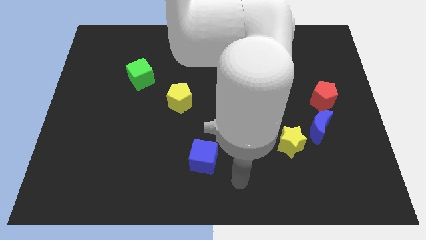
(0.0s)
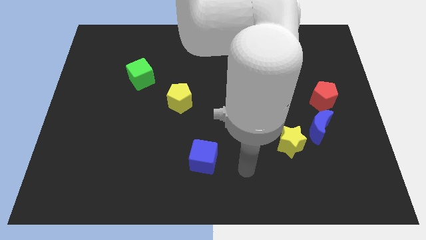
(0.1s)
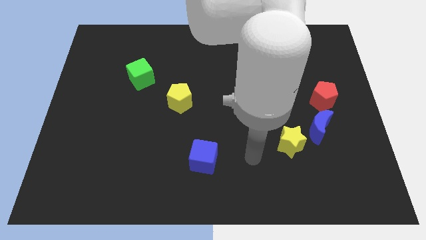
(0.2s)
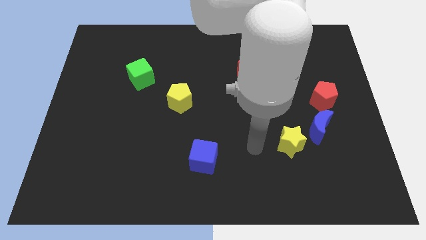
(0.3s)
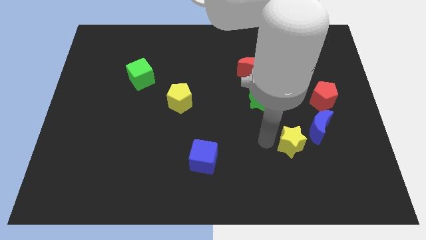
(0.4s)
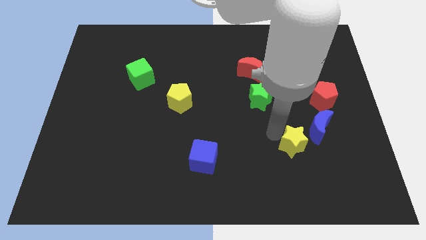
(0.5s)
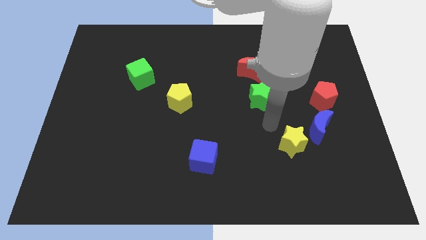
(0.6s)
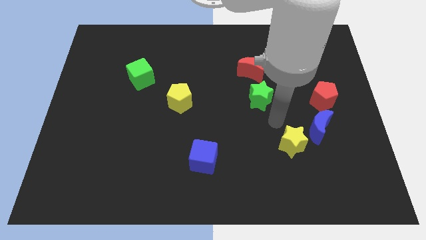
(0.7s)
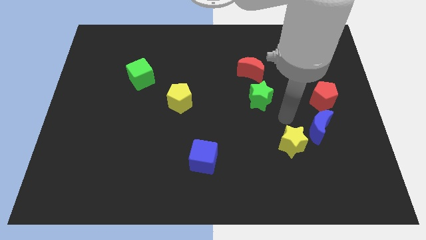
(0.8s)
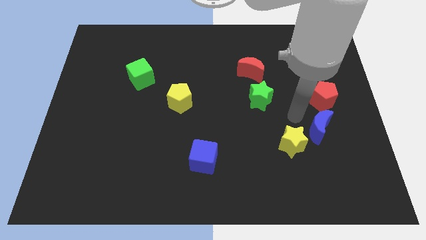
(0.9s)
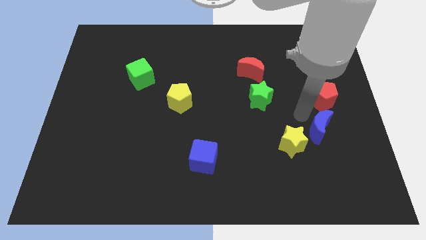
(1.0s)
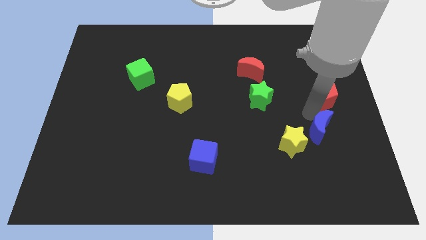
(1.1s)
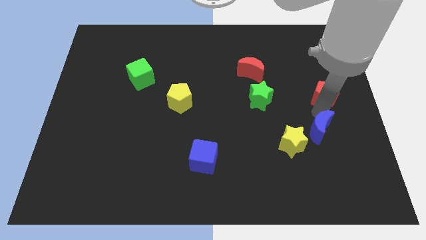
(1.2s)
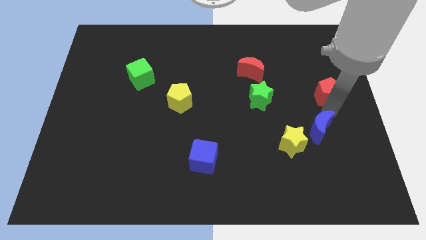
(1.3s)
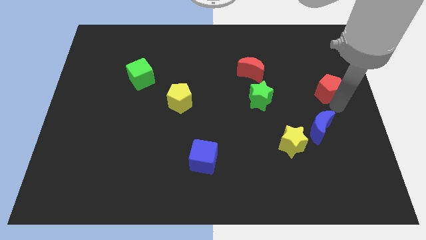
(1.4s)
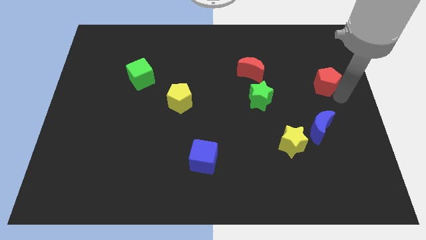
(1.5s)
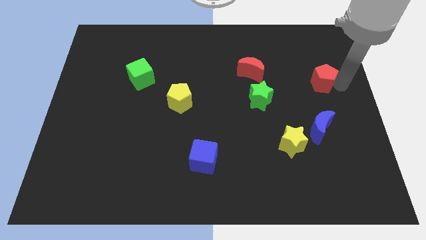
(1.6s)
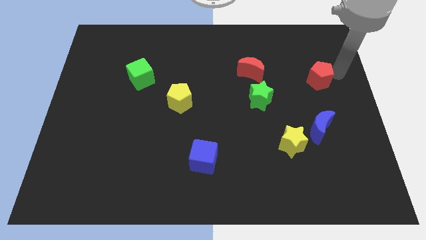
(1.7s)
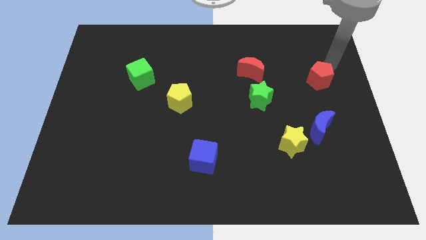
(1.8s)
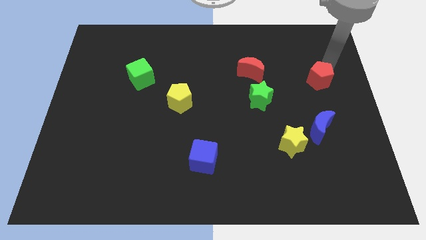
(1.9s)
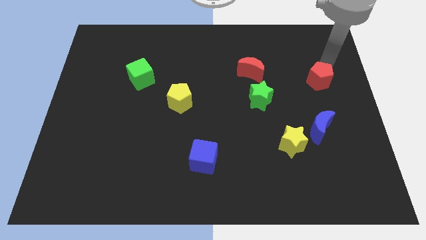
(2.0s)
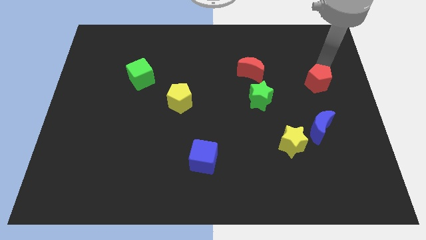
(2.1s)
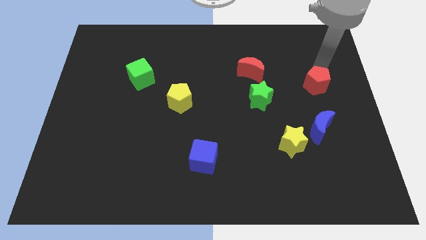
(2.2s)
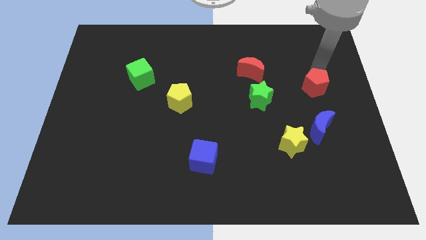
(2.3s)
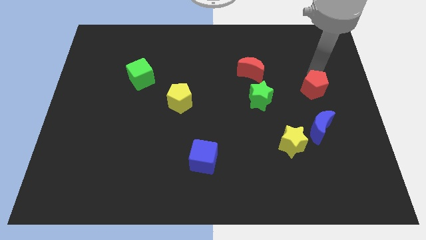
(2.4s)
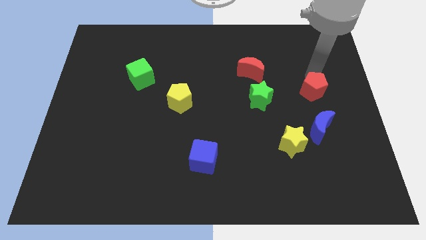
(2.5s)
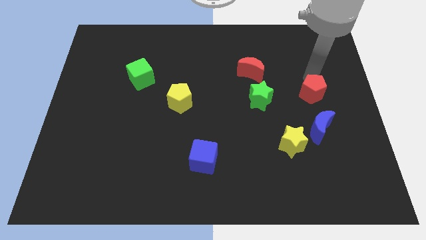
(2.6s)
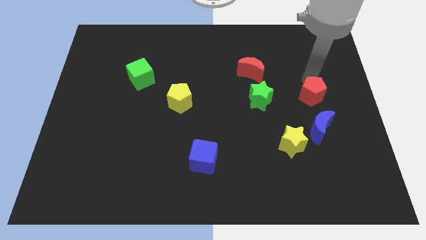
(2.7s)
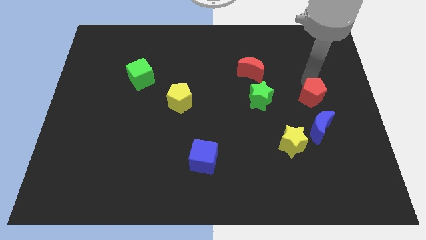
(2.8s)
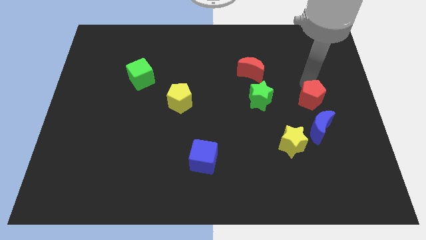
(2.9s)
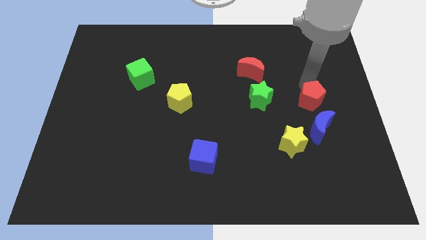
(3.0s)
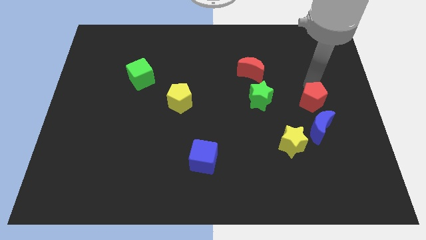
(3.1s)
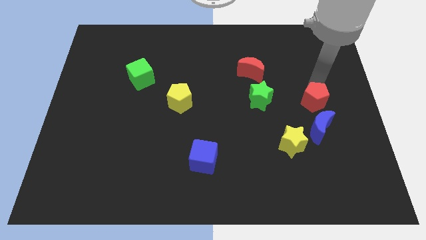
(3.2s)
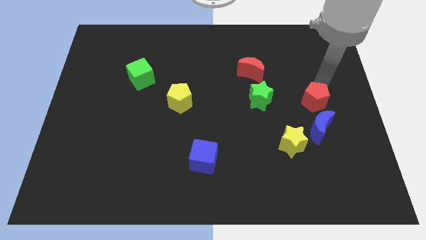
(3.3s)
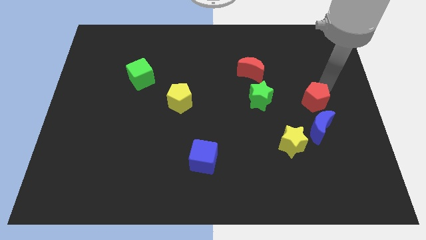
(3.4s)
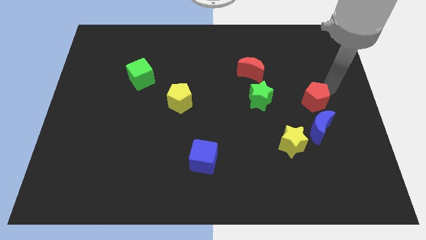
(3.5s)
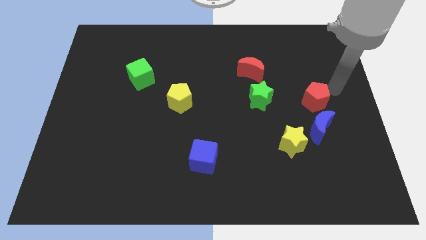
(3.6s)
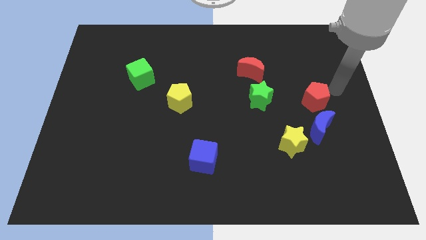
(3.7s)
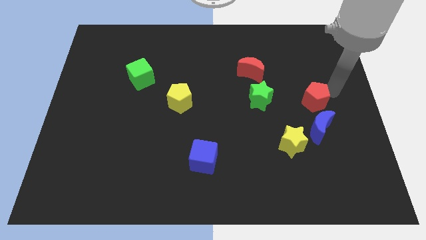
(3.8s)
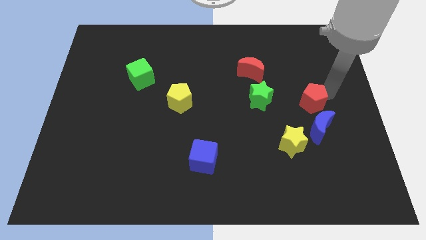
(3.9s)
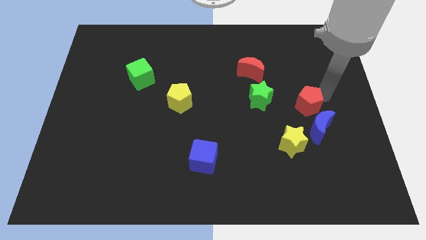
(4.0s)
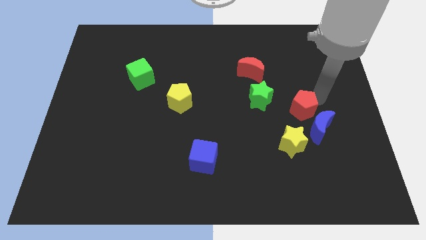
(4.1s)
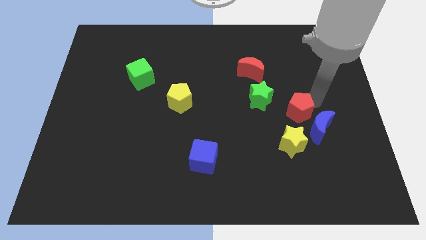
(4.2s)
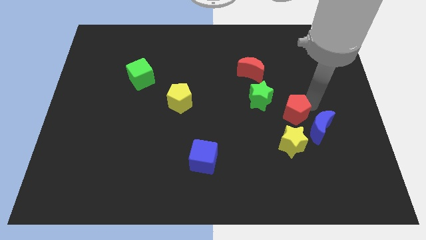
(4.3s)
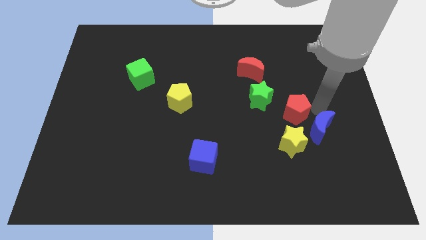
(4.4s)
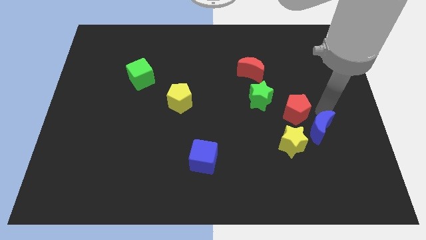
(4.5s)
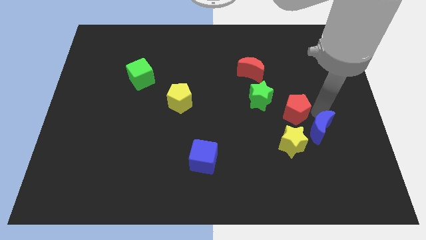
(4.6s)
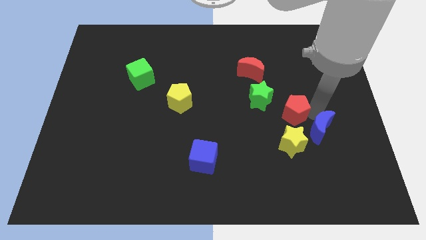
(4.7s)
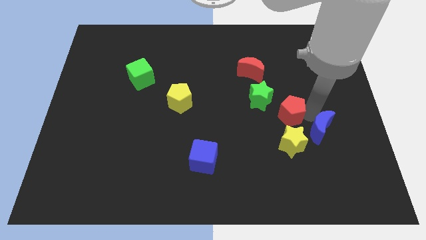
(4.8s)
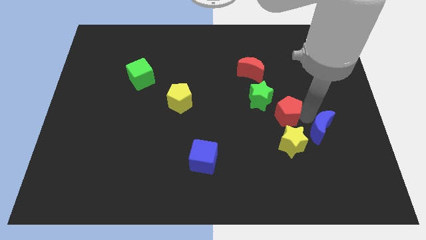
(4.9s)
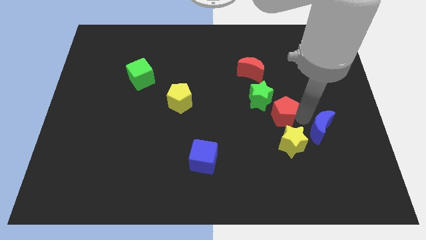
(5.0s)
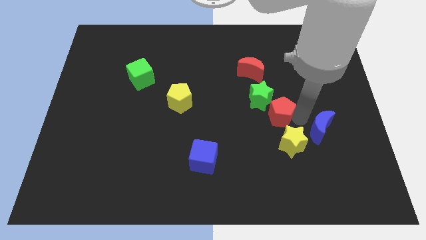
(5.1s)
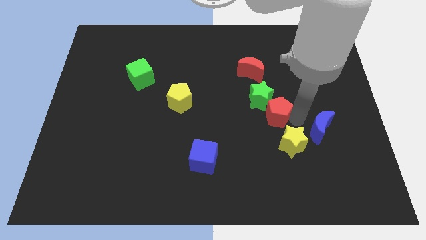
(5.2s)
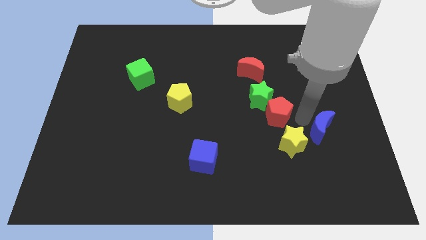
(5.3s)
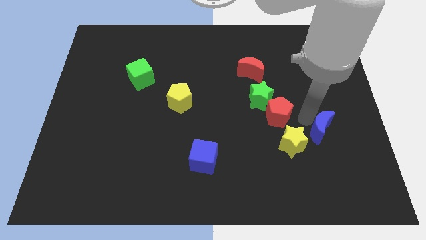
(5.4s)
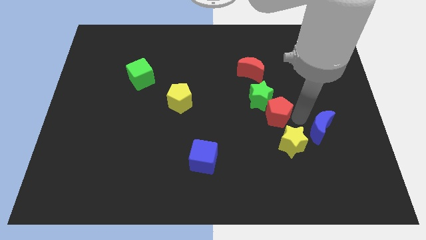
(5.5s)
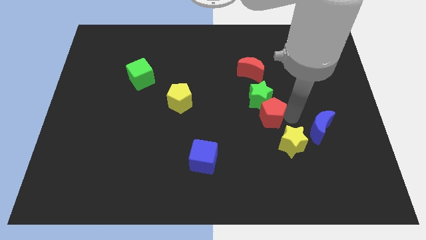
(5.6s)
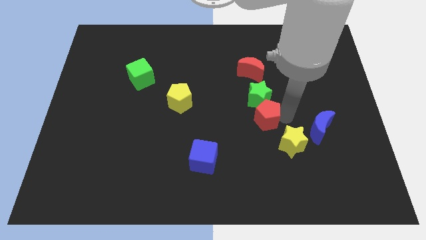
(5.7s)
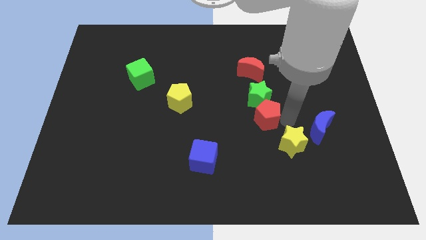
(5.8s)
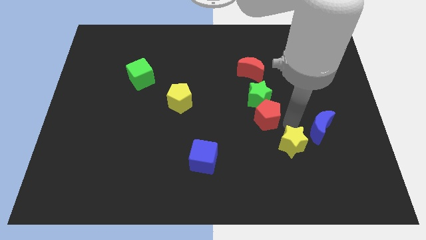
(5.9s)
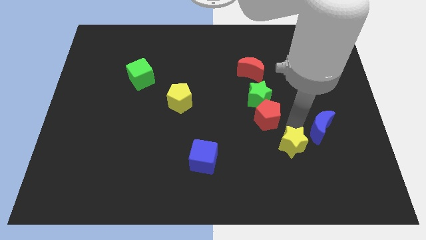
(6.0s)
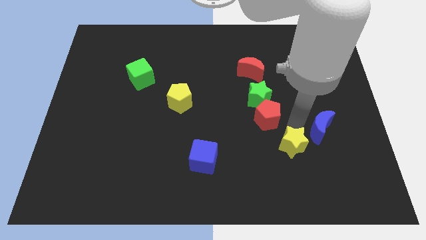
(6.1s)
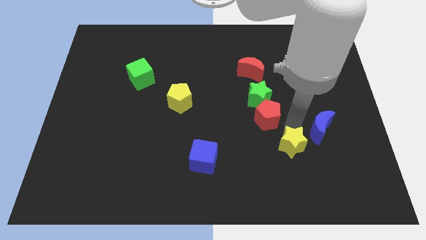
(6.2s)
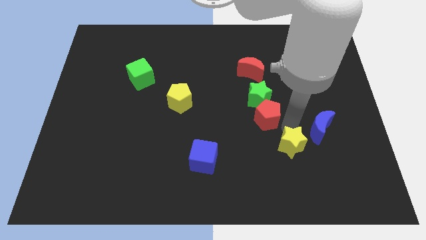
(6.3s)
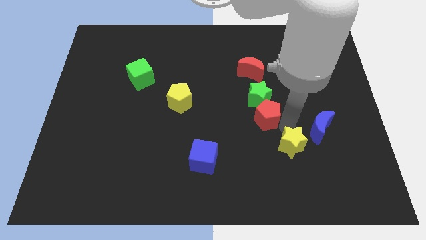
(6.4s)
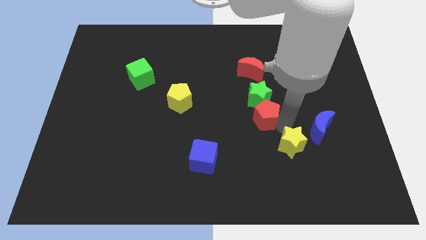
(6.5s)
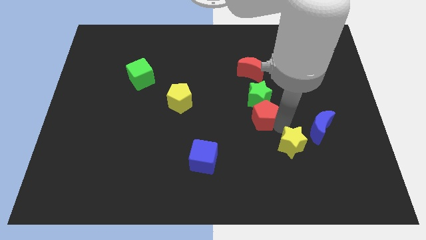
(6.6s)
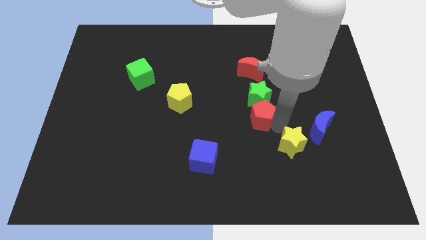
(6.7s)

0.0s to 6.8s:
slide the red pentagon to the middle of the board
